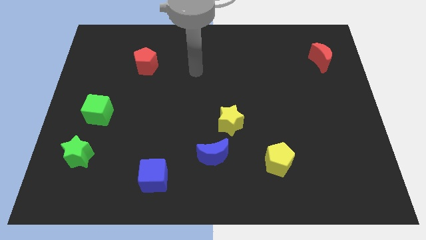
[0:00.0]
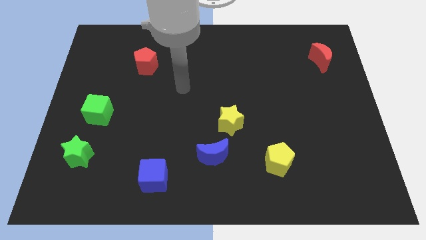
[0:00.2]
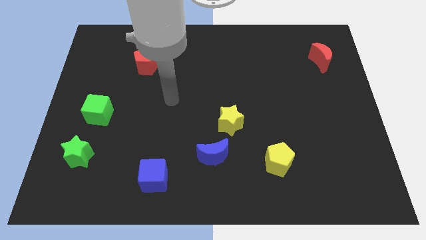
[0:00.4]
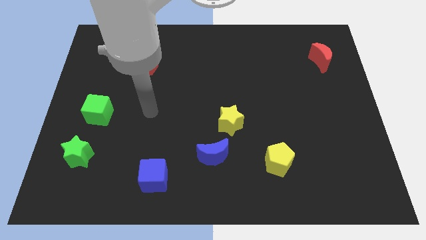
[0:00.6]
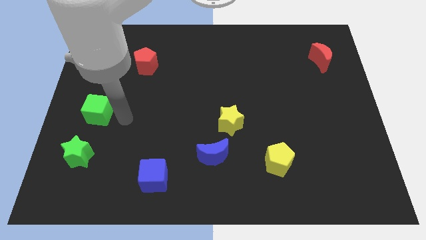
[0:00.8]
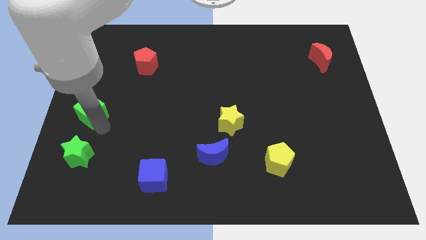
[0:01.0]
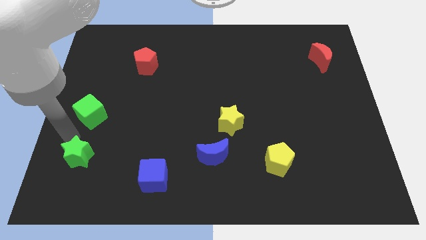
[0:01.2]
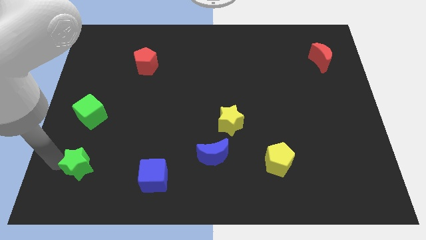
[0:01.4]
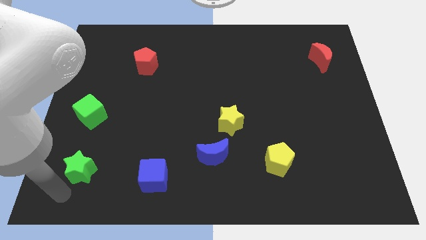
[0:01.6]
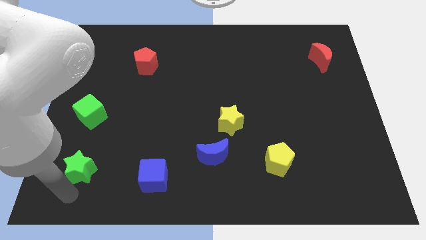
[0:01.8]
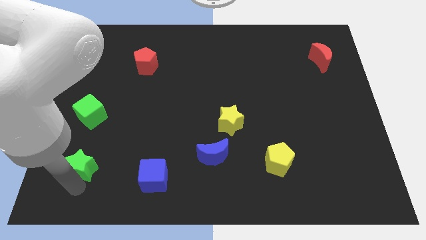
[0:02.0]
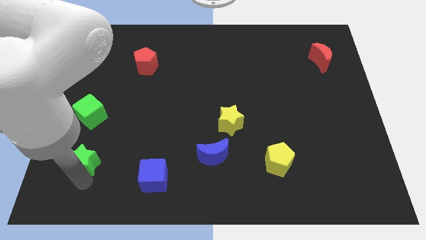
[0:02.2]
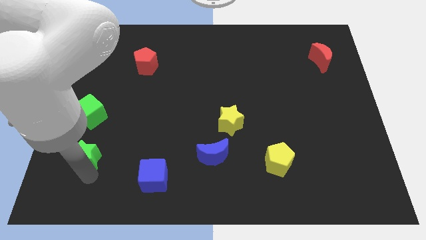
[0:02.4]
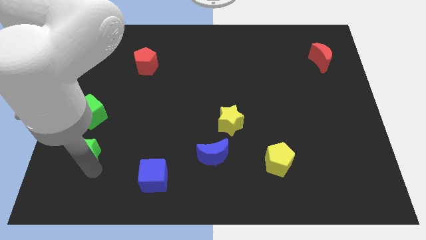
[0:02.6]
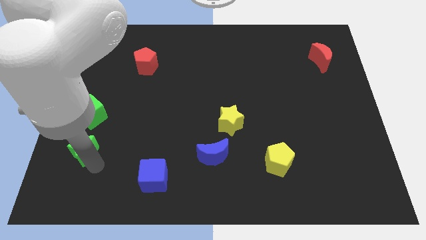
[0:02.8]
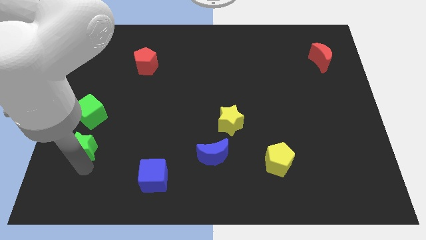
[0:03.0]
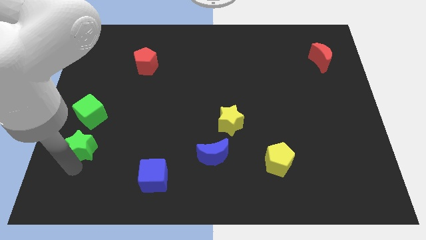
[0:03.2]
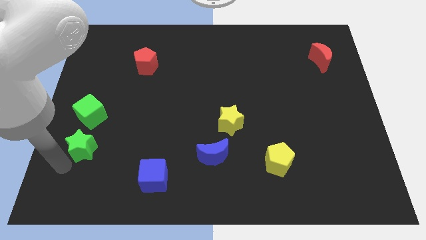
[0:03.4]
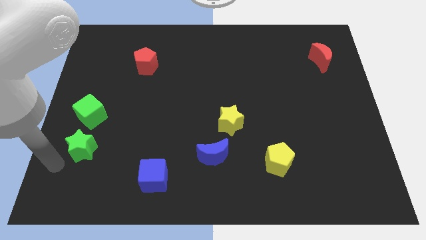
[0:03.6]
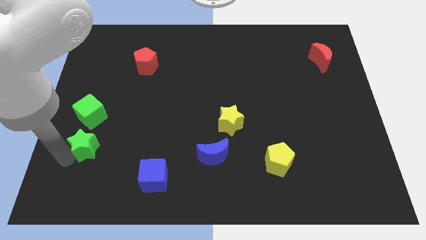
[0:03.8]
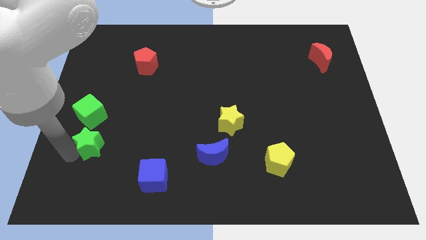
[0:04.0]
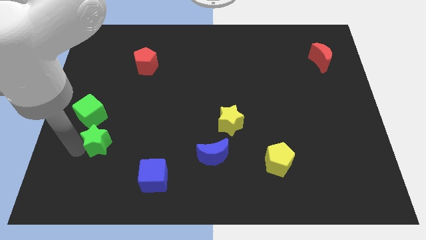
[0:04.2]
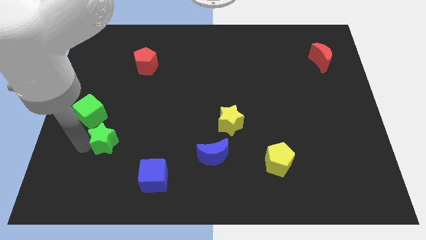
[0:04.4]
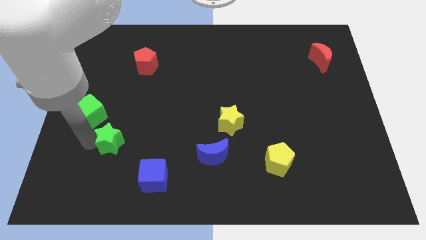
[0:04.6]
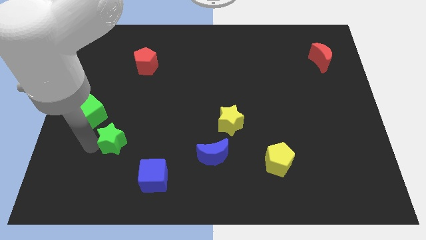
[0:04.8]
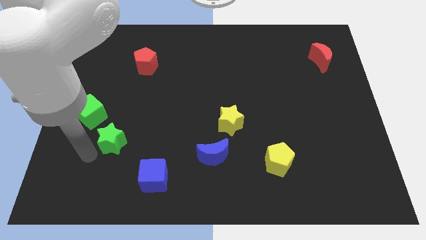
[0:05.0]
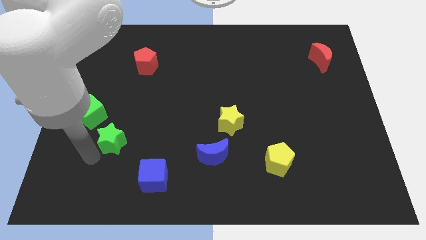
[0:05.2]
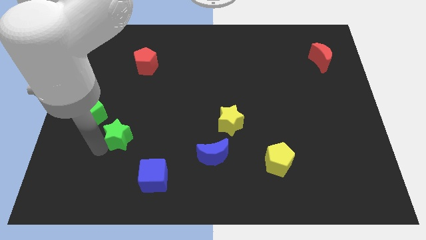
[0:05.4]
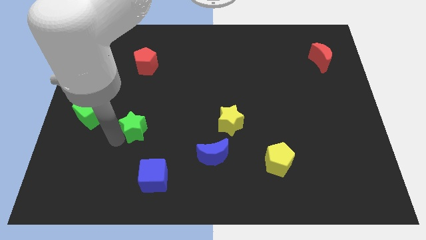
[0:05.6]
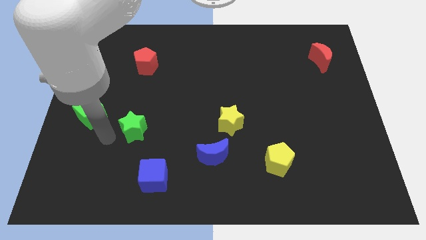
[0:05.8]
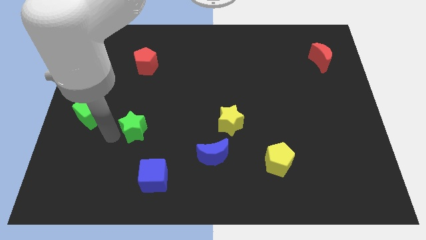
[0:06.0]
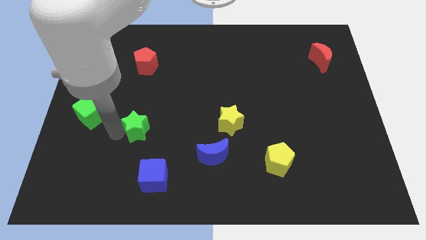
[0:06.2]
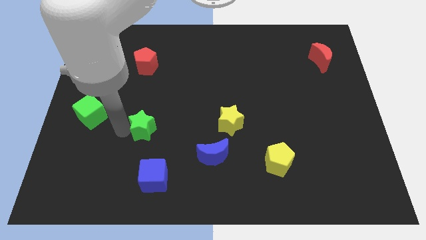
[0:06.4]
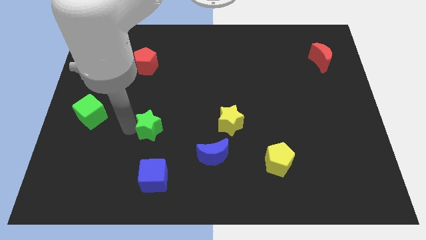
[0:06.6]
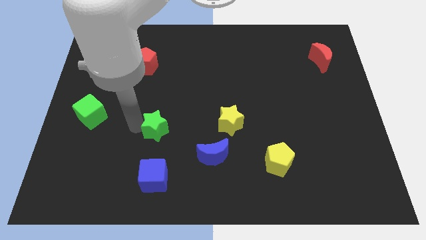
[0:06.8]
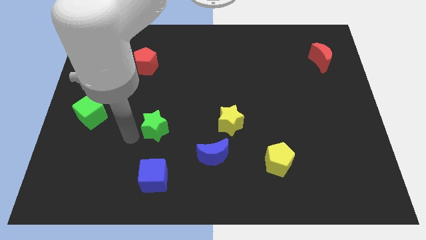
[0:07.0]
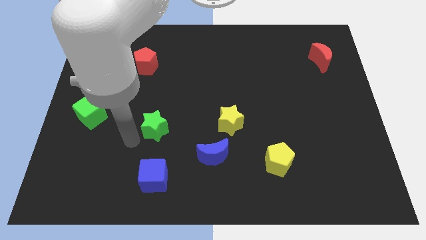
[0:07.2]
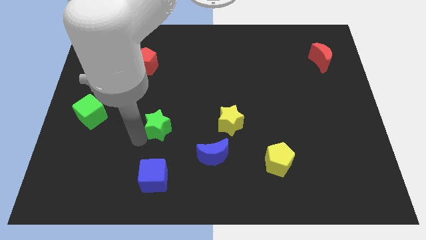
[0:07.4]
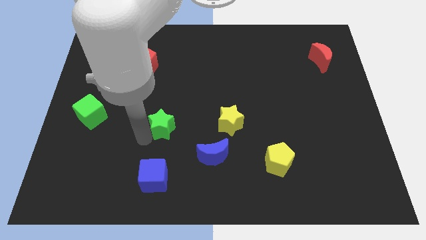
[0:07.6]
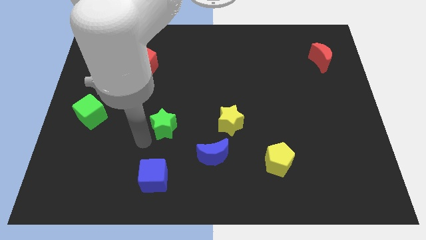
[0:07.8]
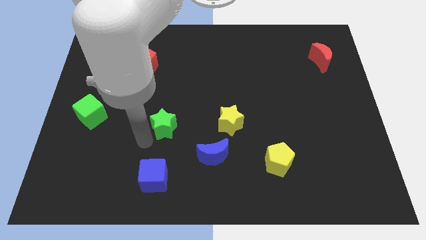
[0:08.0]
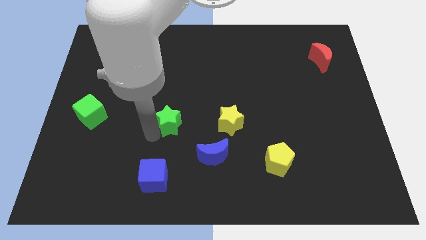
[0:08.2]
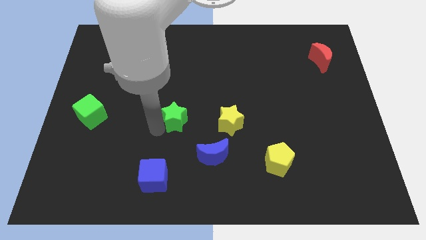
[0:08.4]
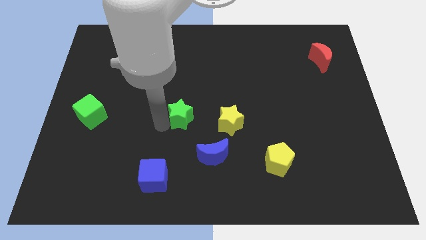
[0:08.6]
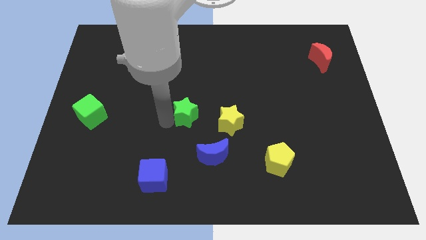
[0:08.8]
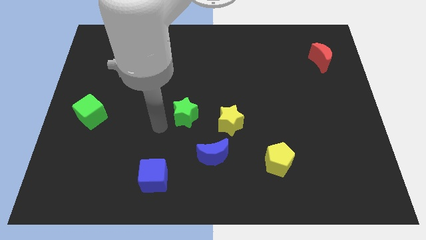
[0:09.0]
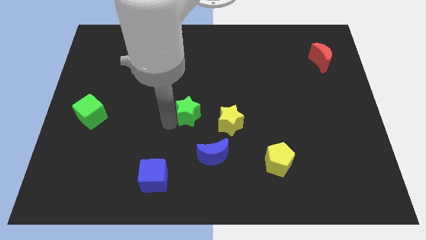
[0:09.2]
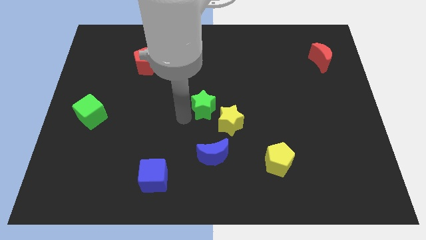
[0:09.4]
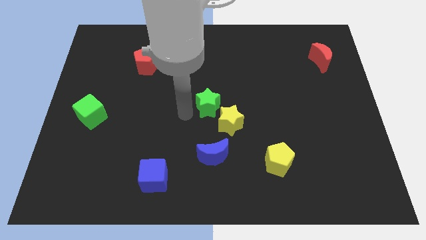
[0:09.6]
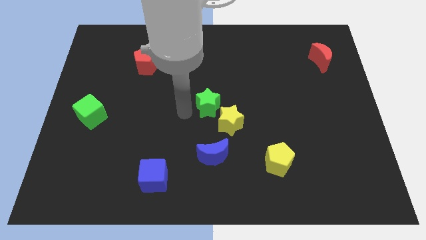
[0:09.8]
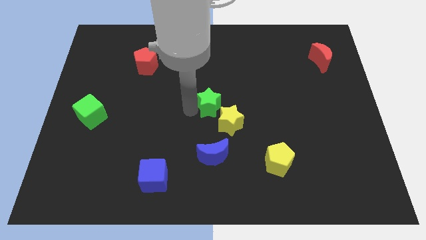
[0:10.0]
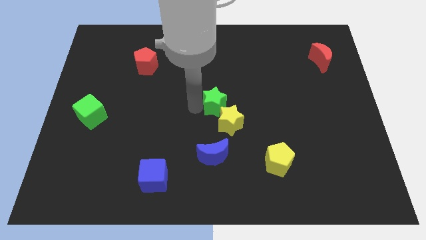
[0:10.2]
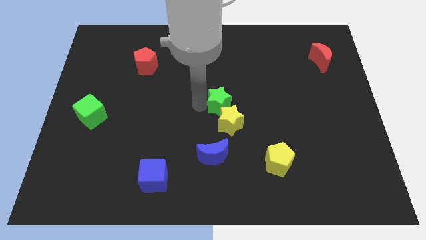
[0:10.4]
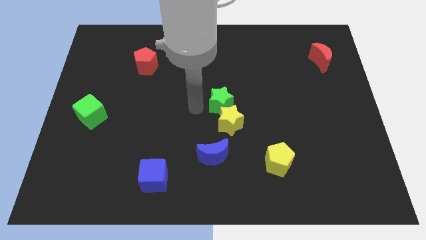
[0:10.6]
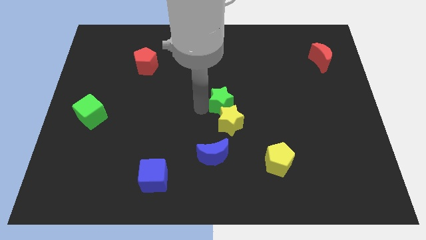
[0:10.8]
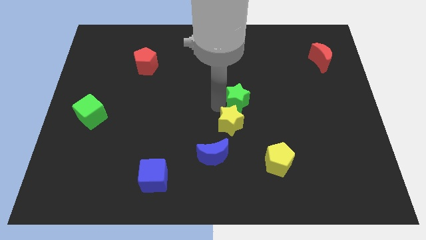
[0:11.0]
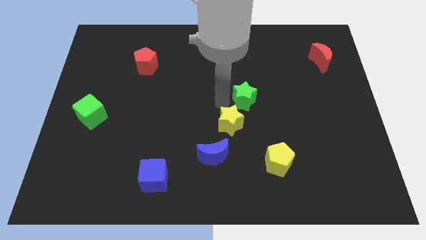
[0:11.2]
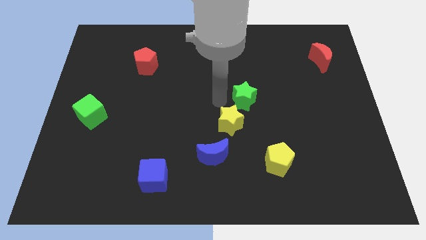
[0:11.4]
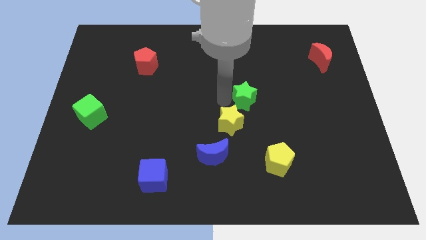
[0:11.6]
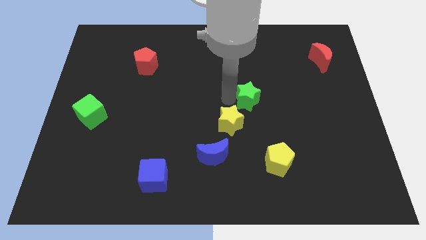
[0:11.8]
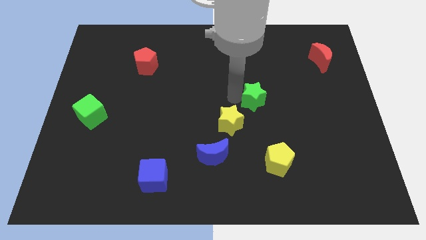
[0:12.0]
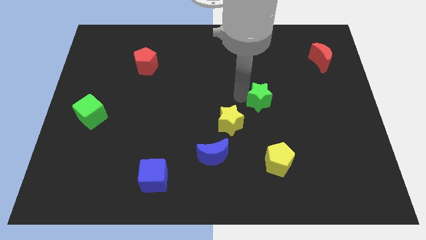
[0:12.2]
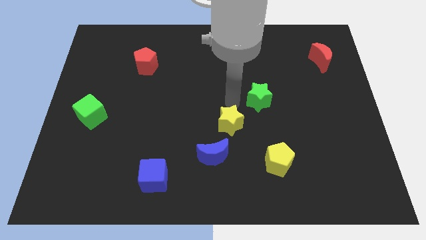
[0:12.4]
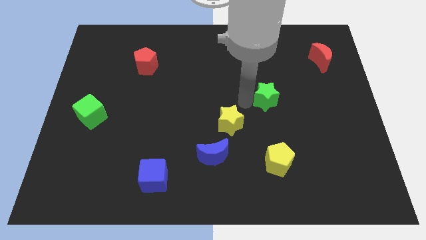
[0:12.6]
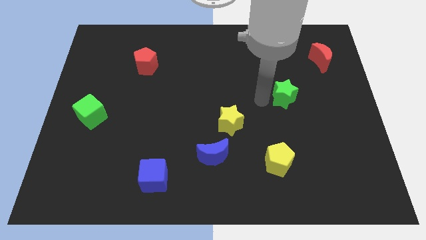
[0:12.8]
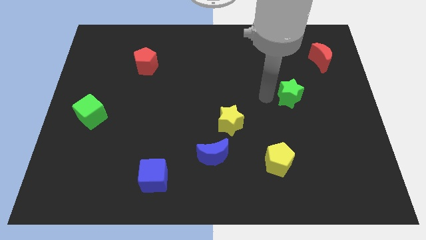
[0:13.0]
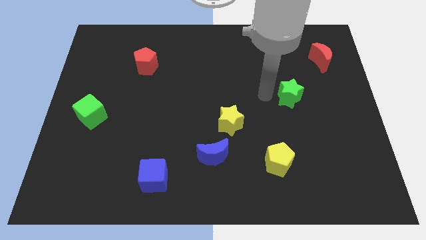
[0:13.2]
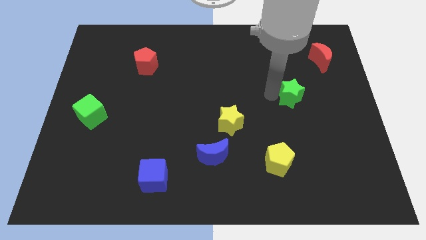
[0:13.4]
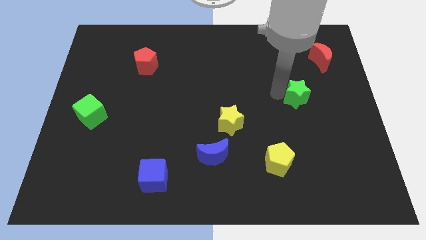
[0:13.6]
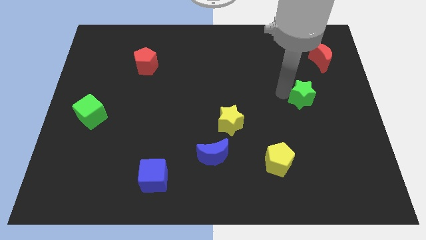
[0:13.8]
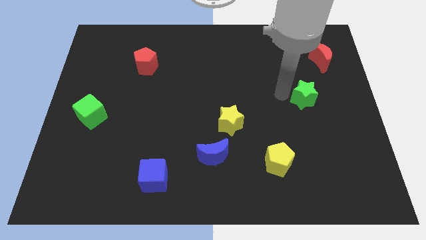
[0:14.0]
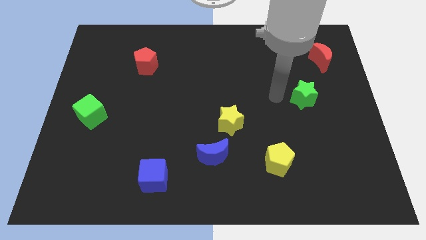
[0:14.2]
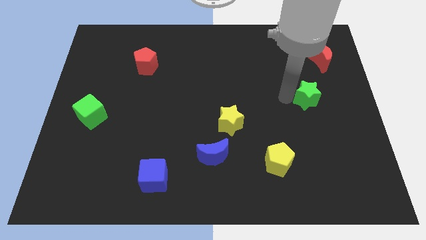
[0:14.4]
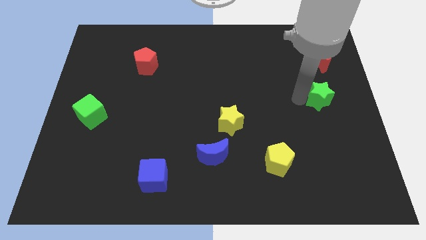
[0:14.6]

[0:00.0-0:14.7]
put the green star to the right side
